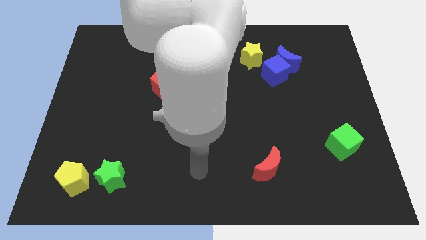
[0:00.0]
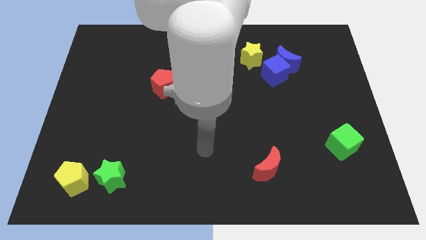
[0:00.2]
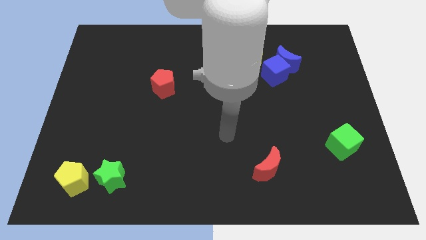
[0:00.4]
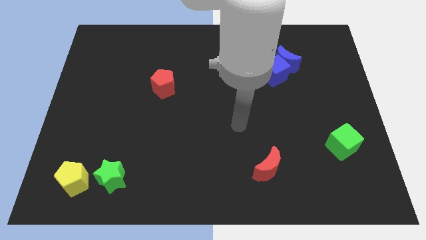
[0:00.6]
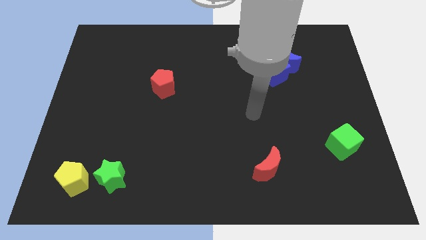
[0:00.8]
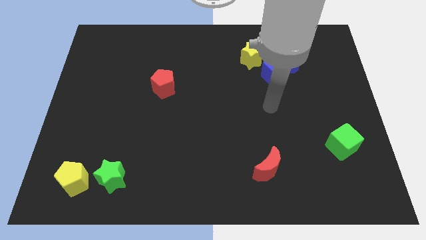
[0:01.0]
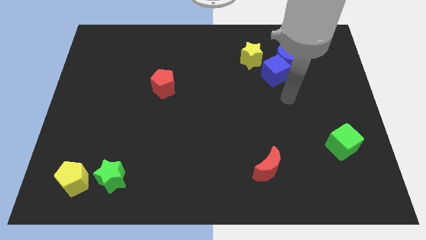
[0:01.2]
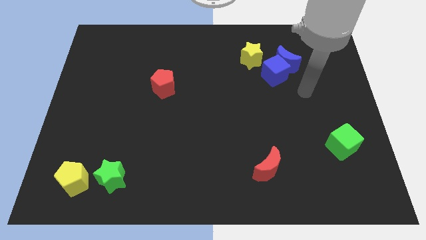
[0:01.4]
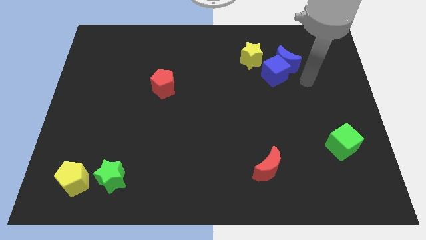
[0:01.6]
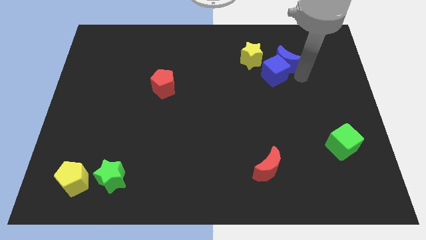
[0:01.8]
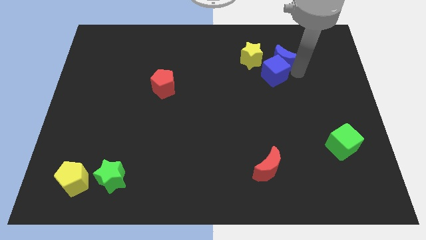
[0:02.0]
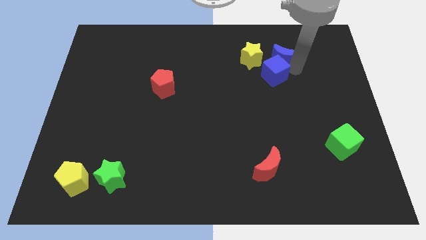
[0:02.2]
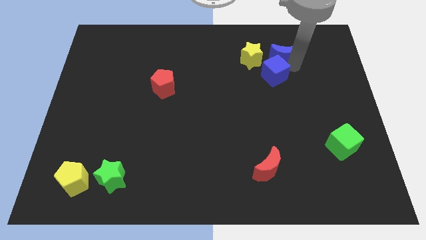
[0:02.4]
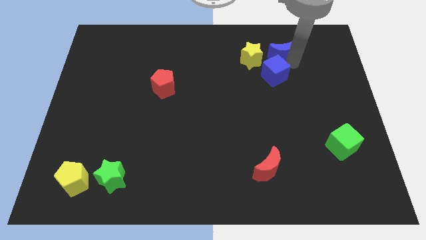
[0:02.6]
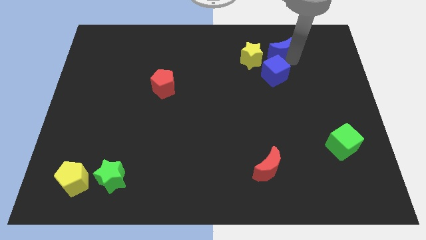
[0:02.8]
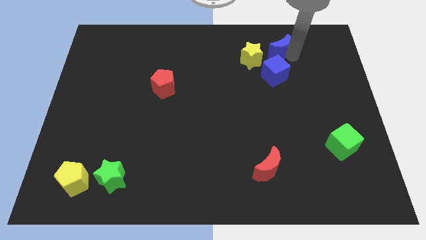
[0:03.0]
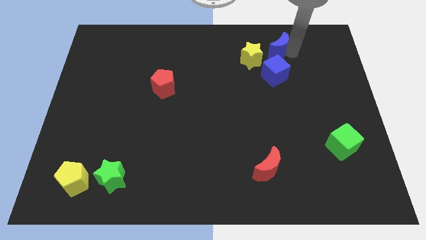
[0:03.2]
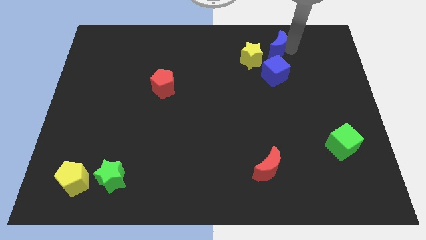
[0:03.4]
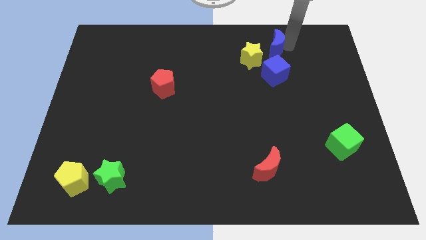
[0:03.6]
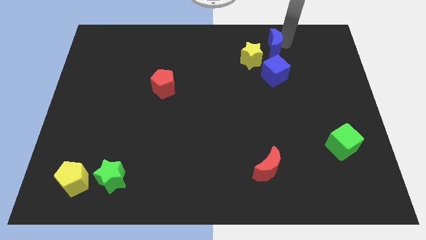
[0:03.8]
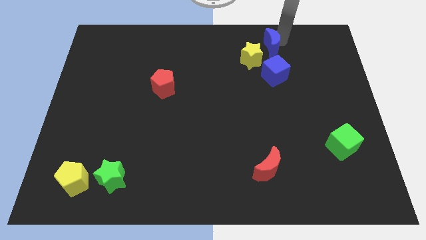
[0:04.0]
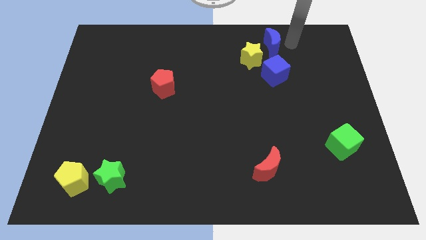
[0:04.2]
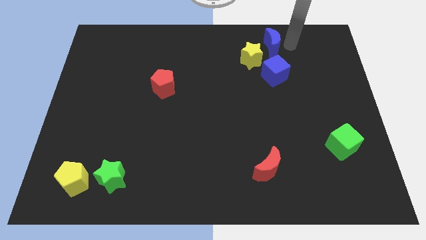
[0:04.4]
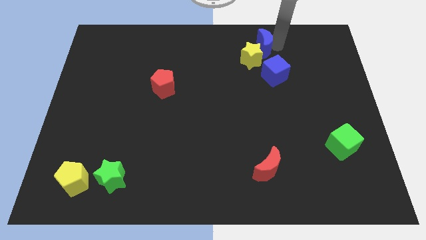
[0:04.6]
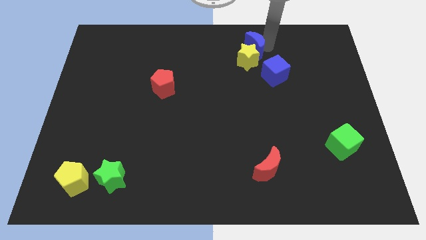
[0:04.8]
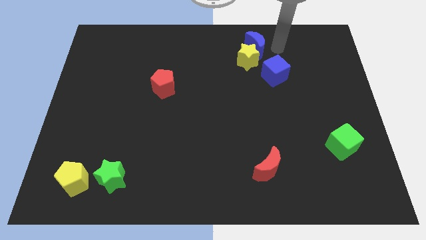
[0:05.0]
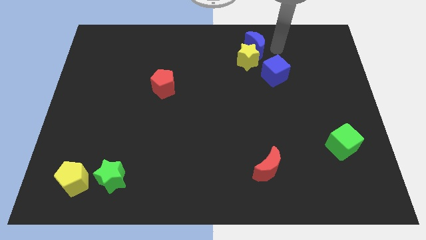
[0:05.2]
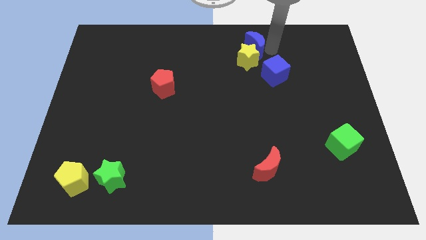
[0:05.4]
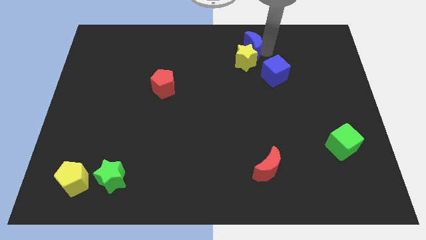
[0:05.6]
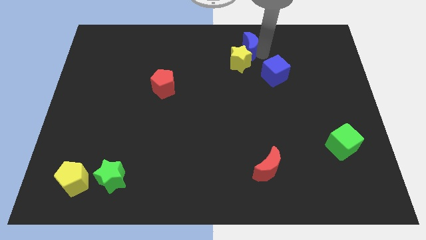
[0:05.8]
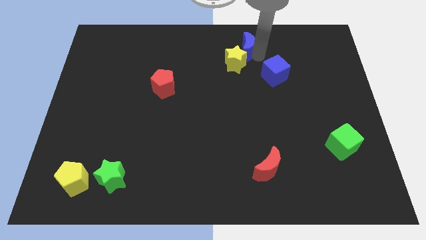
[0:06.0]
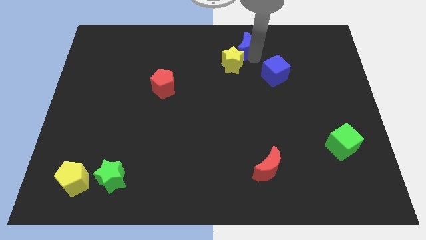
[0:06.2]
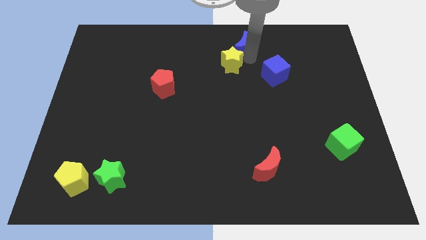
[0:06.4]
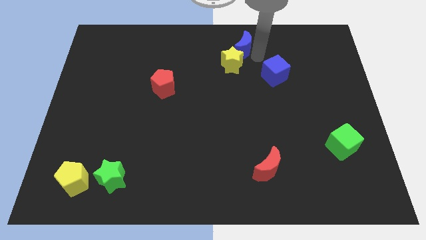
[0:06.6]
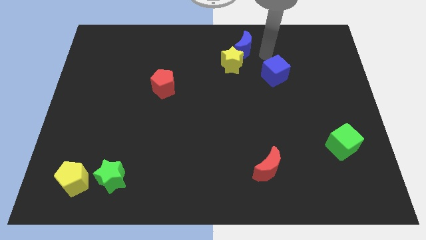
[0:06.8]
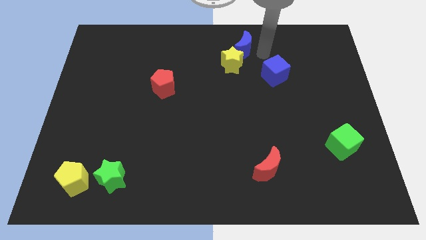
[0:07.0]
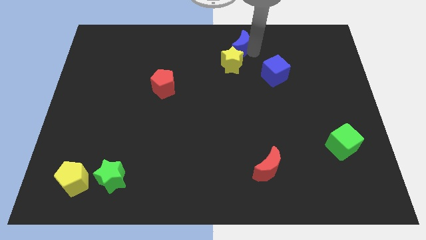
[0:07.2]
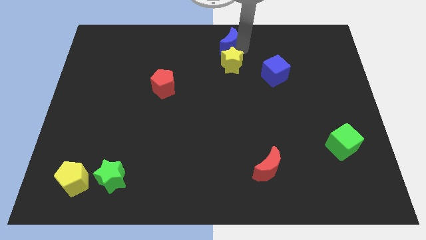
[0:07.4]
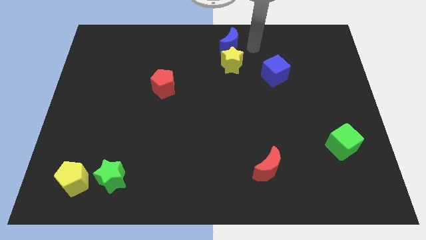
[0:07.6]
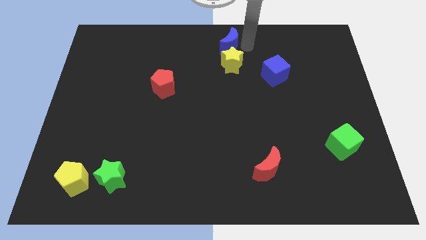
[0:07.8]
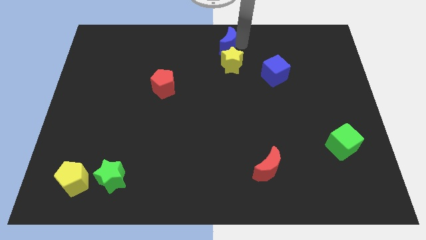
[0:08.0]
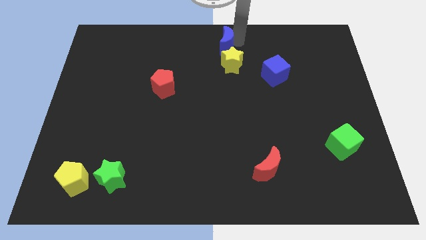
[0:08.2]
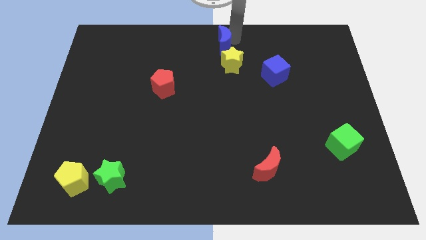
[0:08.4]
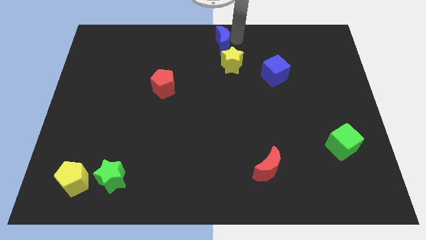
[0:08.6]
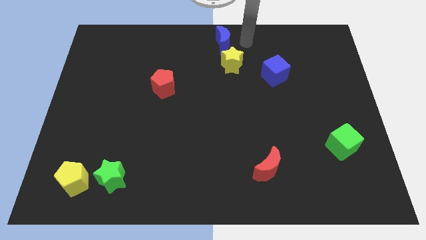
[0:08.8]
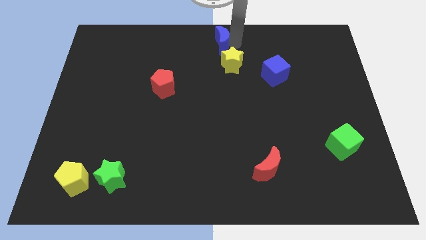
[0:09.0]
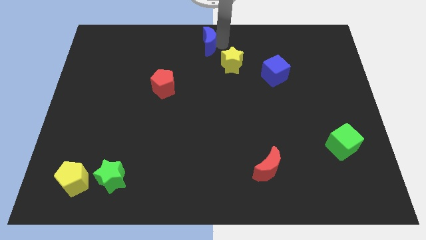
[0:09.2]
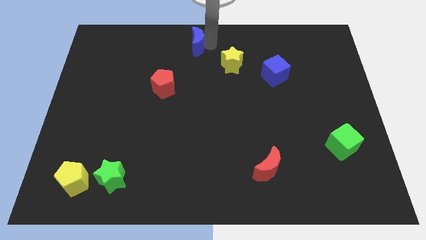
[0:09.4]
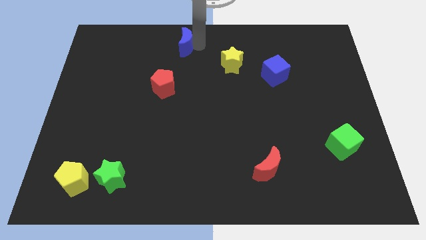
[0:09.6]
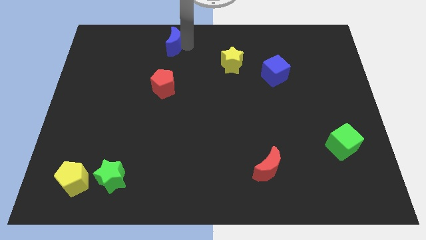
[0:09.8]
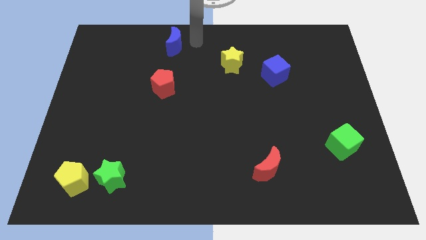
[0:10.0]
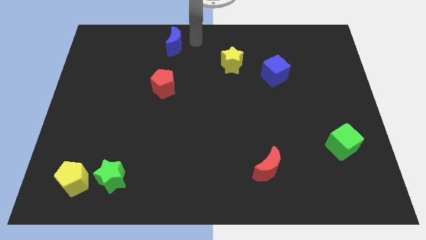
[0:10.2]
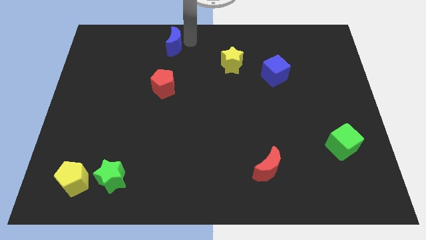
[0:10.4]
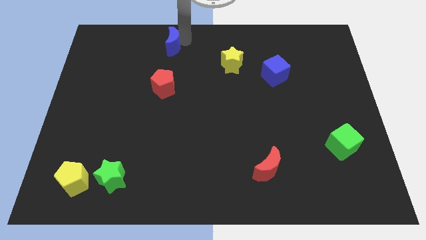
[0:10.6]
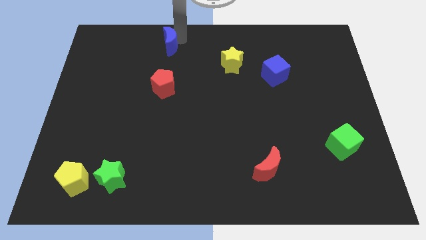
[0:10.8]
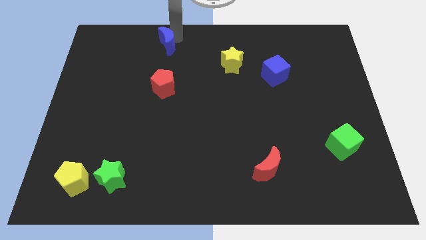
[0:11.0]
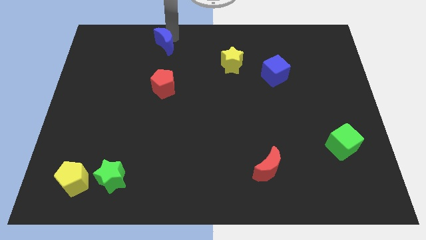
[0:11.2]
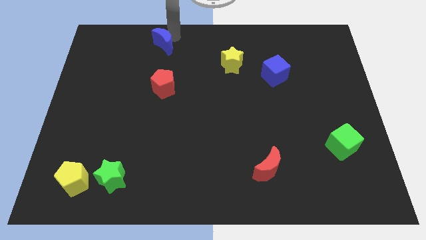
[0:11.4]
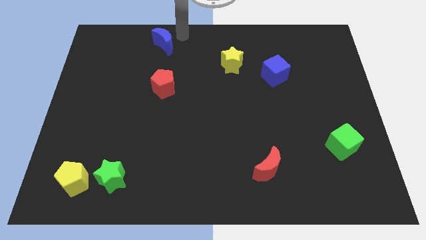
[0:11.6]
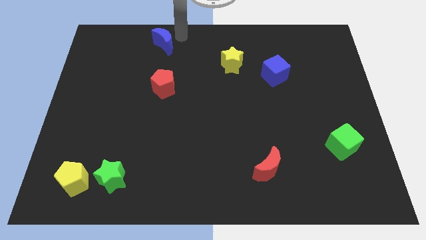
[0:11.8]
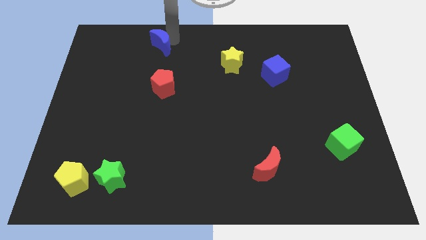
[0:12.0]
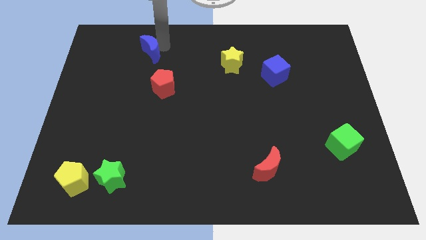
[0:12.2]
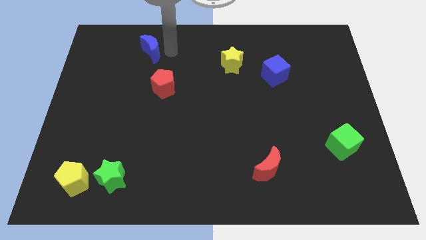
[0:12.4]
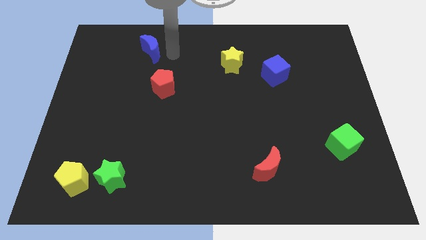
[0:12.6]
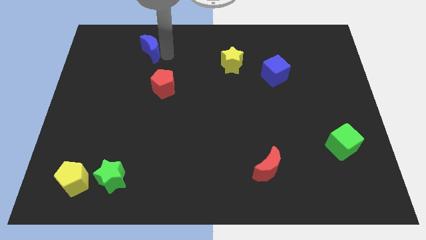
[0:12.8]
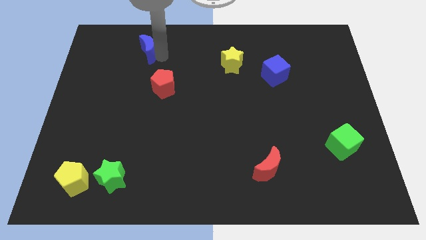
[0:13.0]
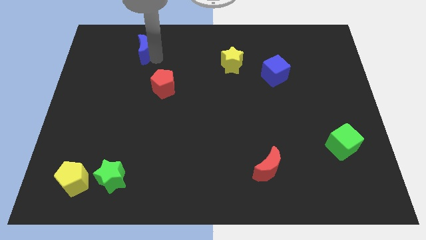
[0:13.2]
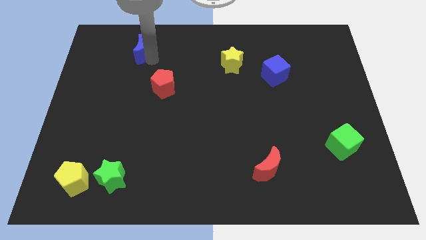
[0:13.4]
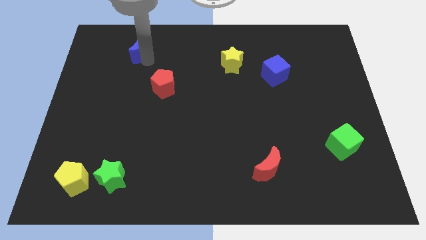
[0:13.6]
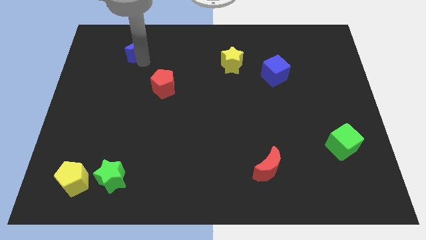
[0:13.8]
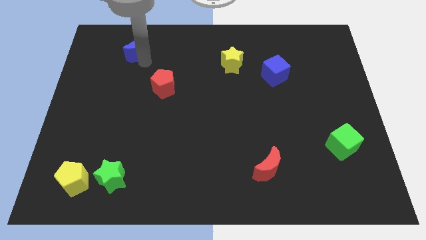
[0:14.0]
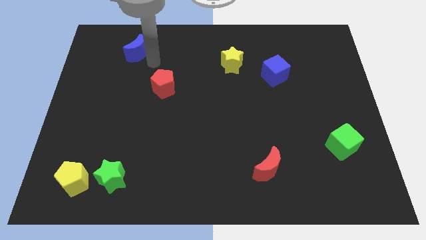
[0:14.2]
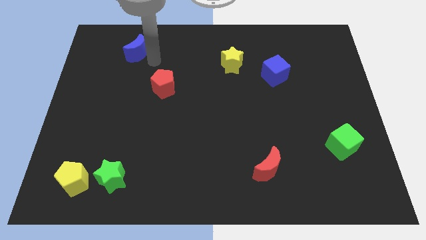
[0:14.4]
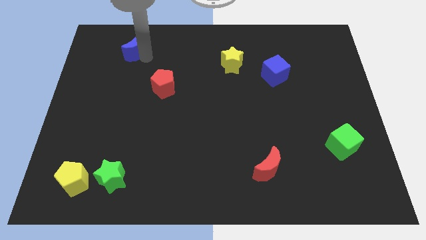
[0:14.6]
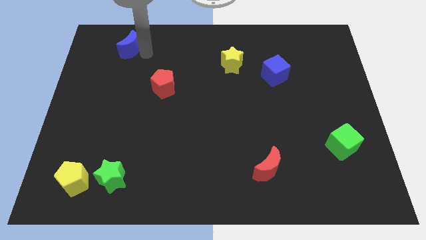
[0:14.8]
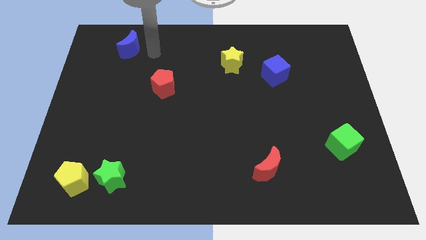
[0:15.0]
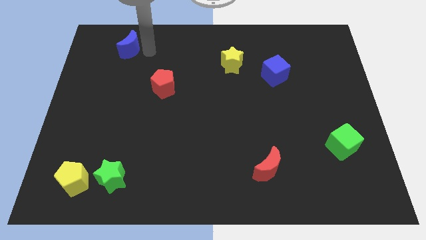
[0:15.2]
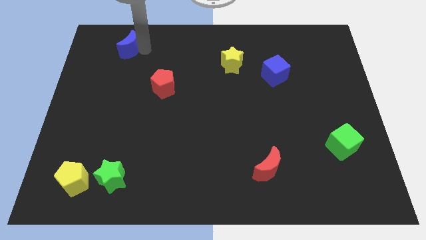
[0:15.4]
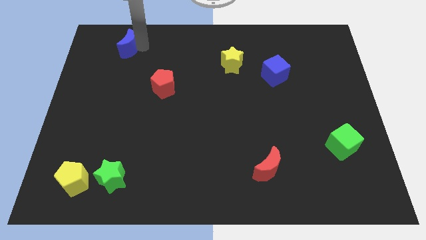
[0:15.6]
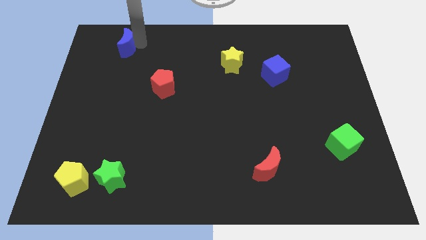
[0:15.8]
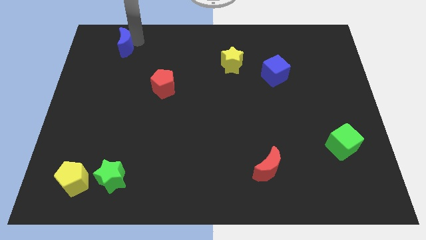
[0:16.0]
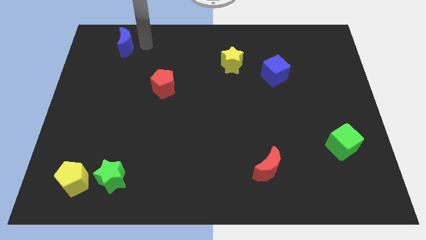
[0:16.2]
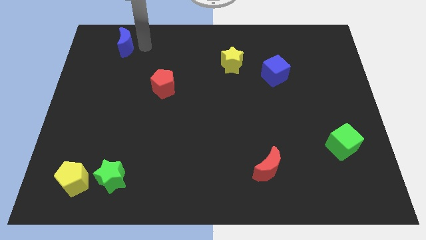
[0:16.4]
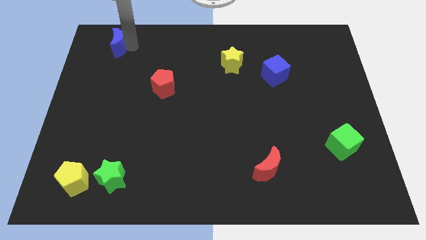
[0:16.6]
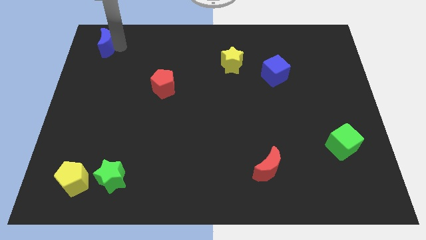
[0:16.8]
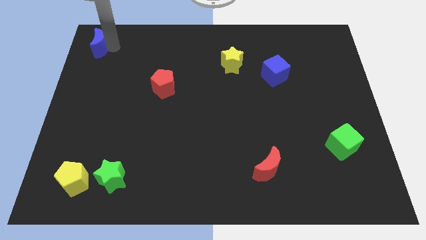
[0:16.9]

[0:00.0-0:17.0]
slide the blue moon to the top left of the board
